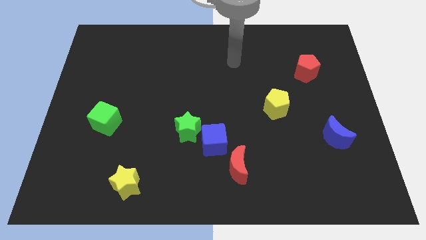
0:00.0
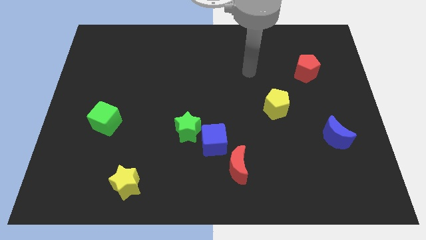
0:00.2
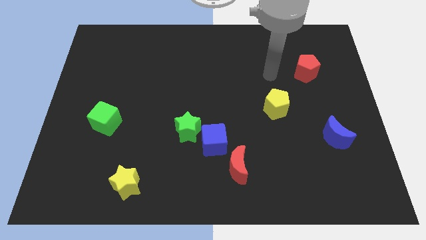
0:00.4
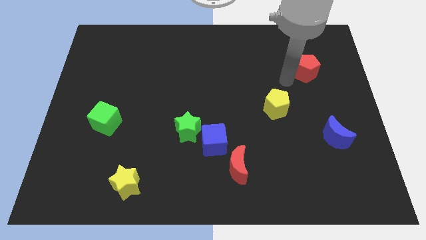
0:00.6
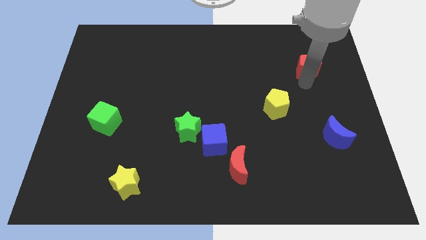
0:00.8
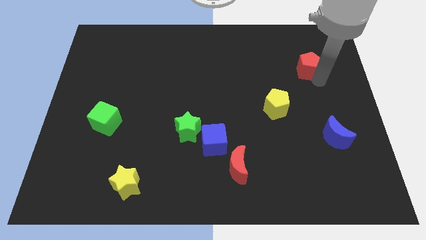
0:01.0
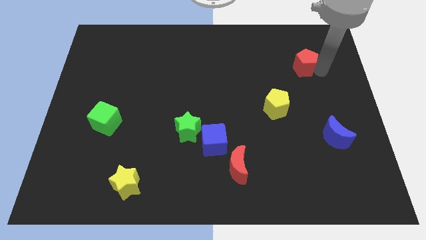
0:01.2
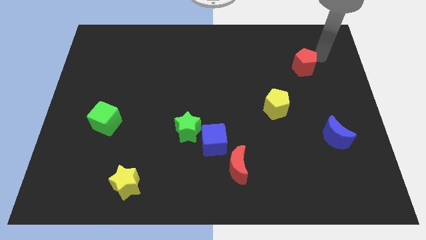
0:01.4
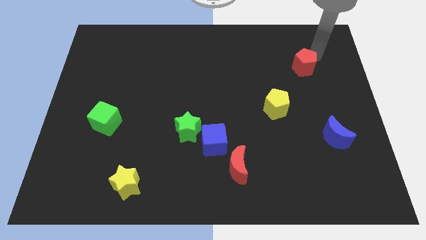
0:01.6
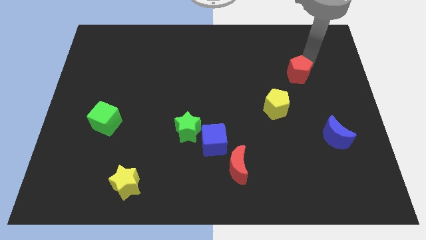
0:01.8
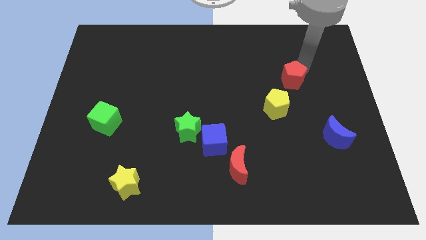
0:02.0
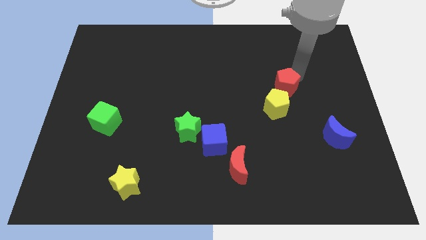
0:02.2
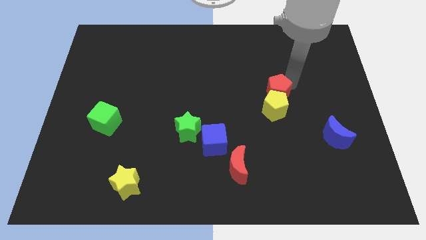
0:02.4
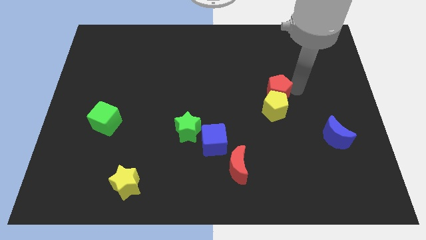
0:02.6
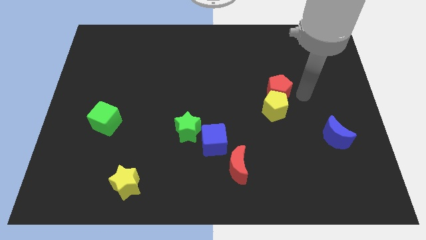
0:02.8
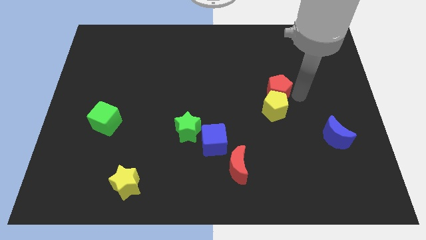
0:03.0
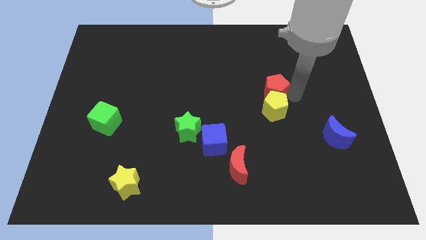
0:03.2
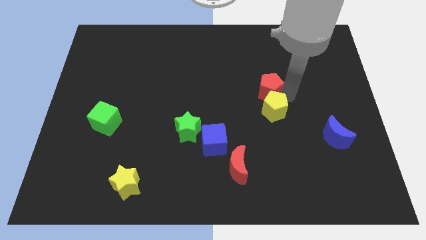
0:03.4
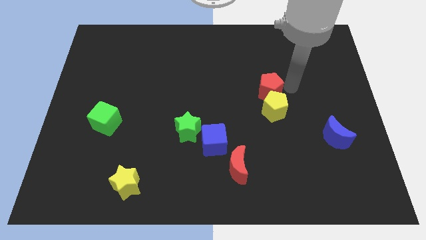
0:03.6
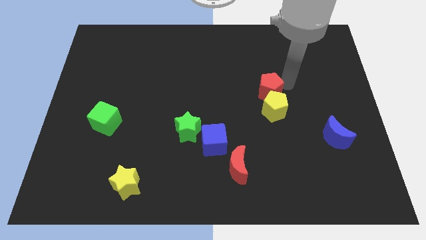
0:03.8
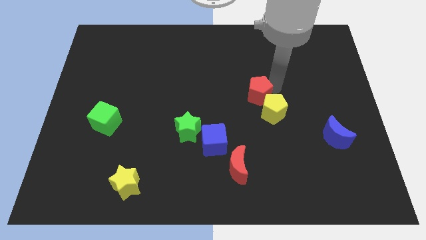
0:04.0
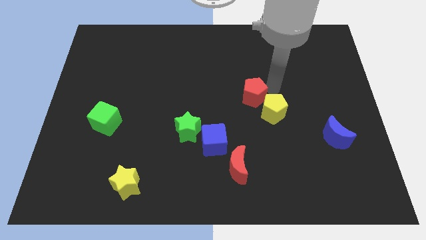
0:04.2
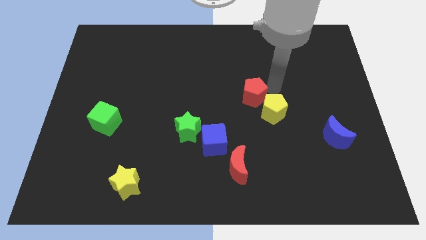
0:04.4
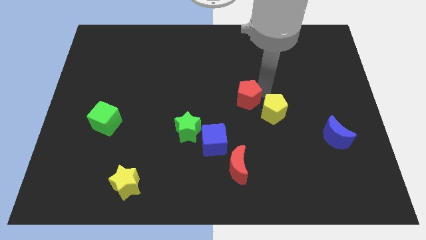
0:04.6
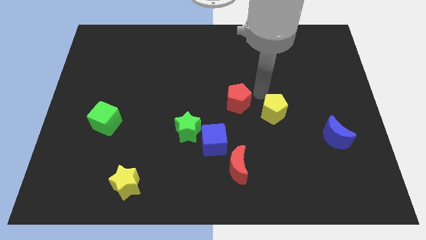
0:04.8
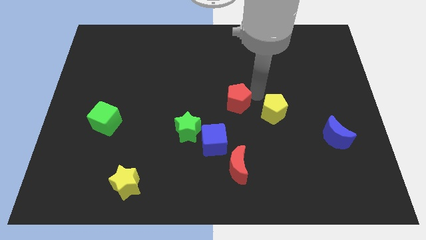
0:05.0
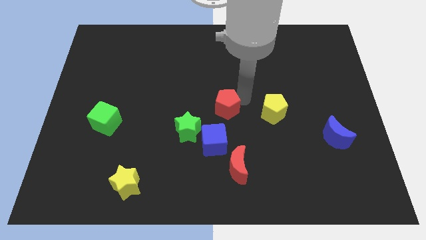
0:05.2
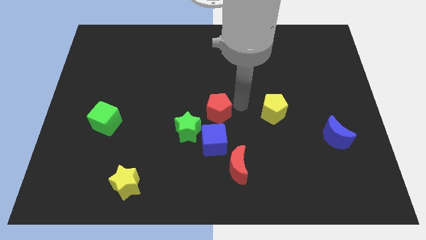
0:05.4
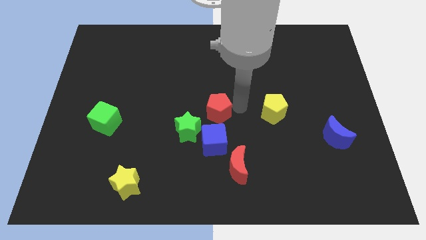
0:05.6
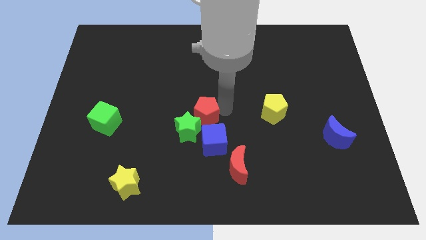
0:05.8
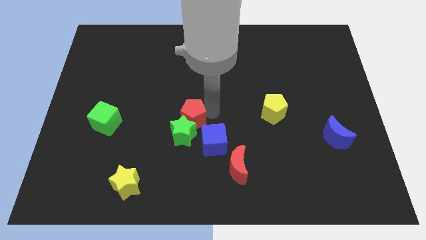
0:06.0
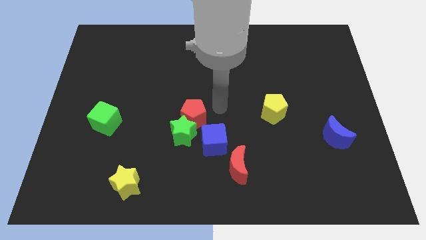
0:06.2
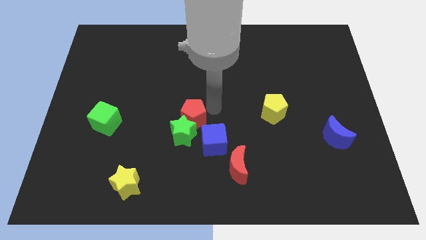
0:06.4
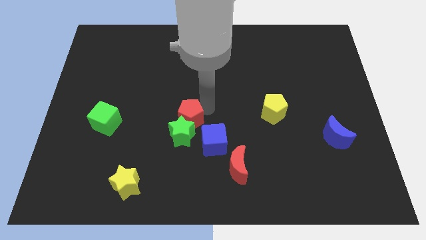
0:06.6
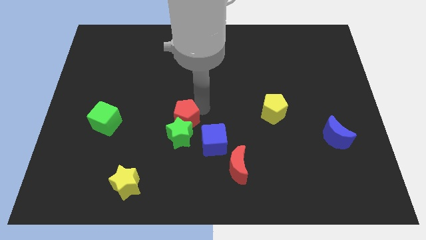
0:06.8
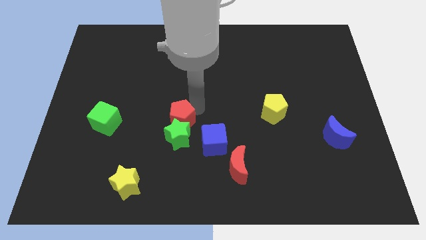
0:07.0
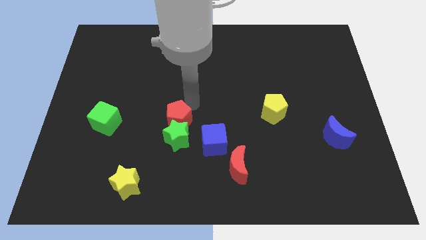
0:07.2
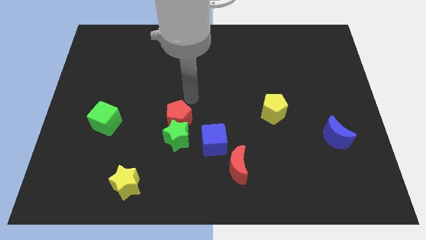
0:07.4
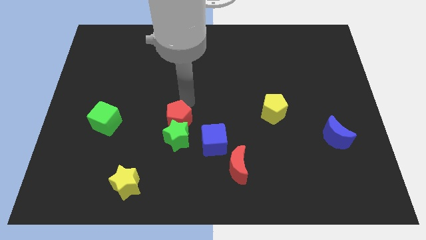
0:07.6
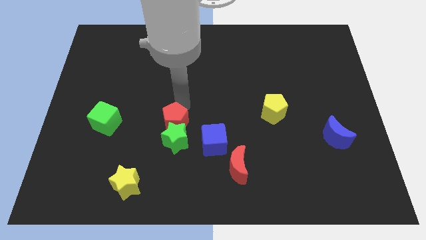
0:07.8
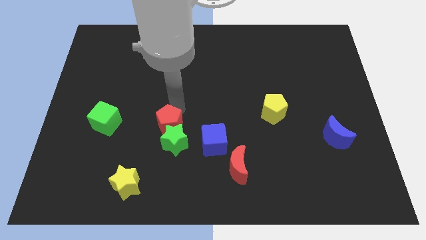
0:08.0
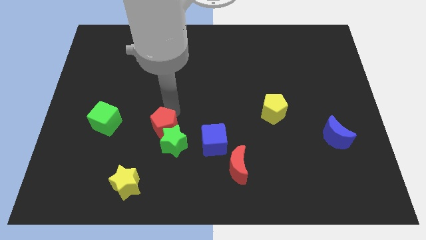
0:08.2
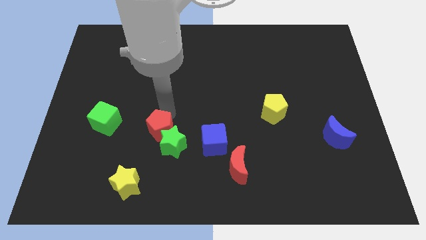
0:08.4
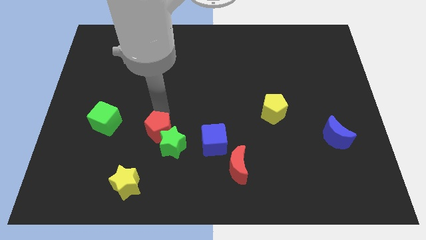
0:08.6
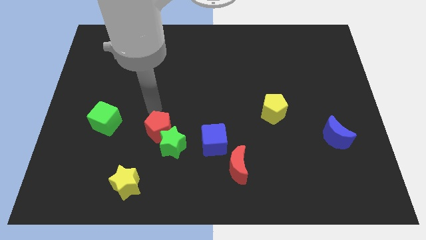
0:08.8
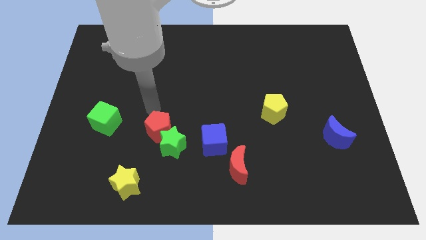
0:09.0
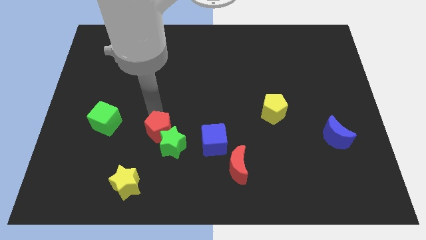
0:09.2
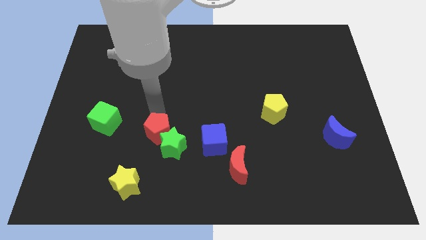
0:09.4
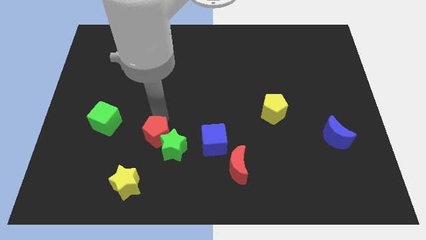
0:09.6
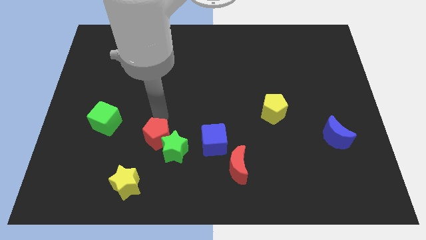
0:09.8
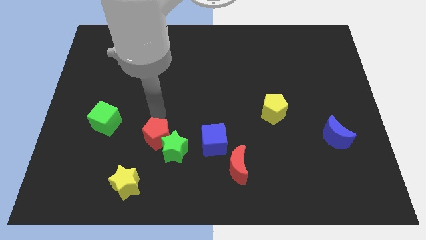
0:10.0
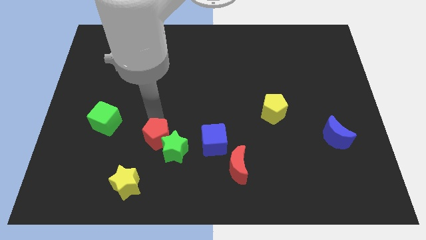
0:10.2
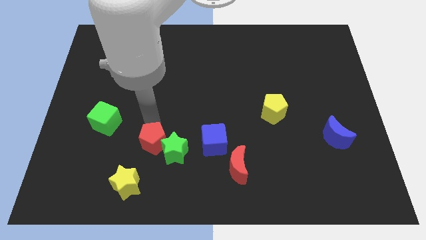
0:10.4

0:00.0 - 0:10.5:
slide the red pentagon to the top right of the yellow star
